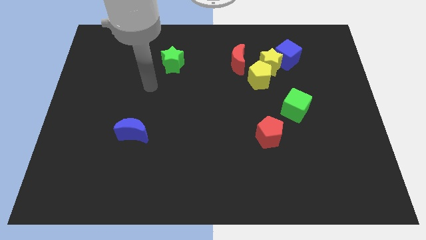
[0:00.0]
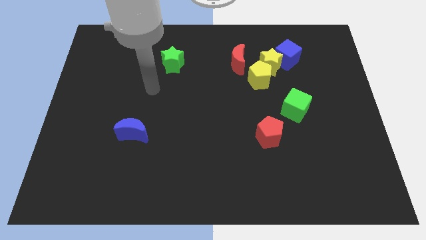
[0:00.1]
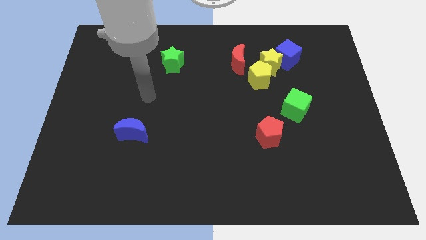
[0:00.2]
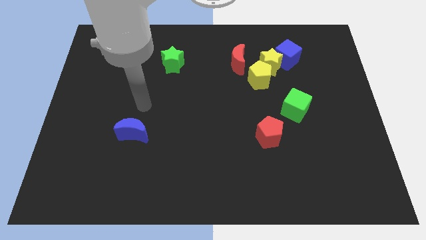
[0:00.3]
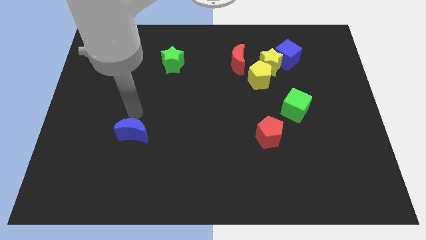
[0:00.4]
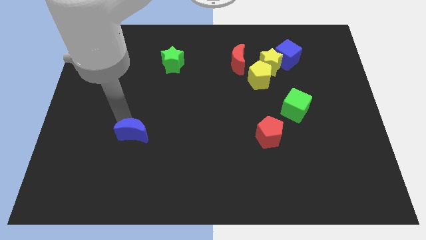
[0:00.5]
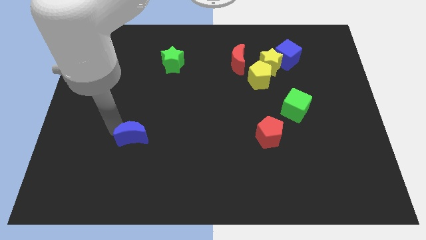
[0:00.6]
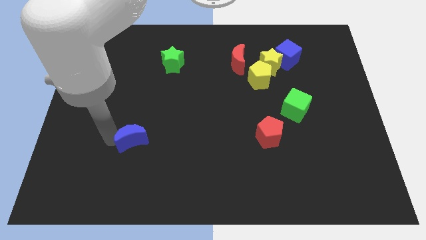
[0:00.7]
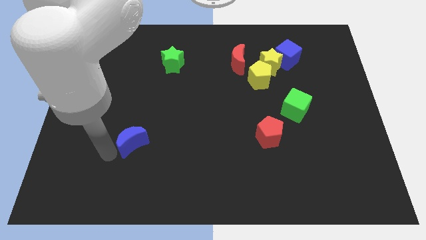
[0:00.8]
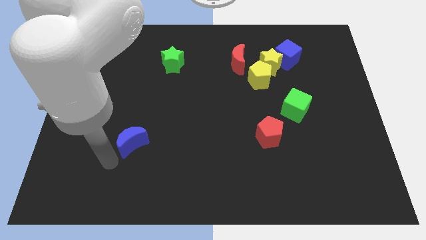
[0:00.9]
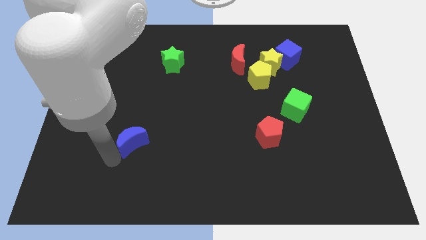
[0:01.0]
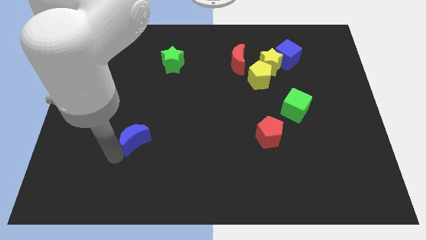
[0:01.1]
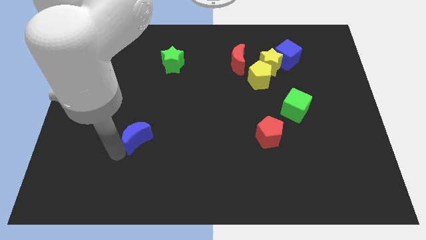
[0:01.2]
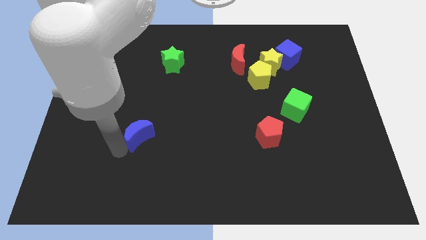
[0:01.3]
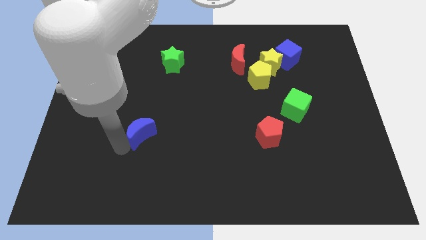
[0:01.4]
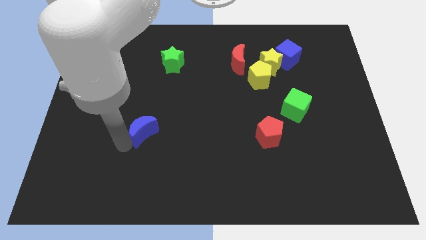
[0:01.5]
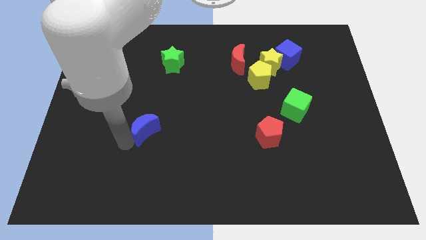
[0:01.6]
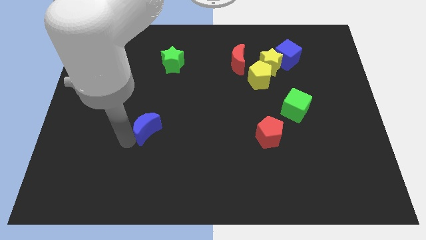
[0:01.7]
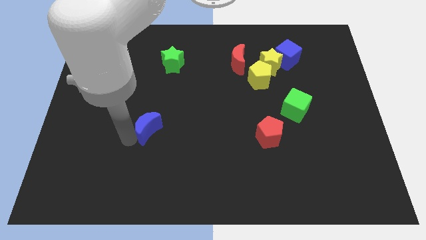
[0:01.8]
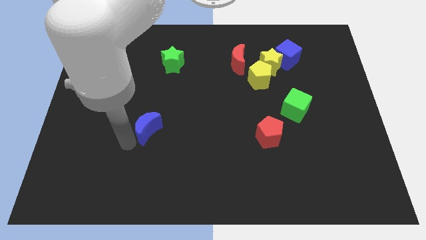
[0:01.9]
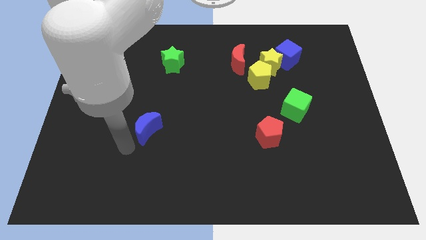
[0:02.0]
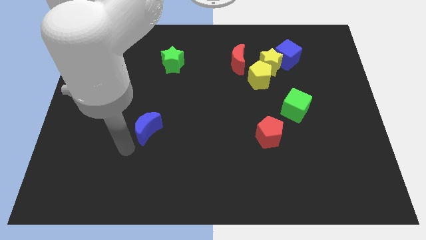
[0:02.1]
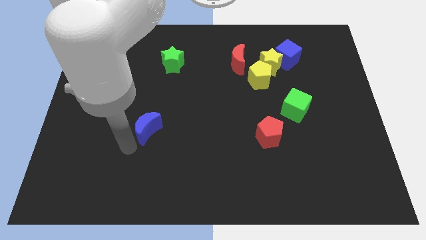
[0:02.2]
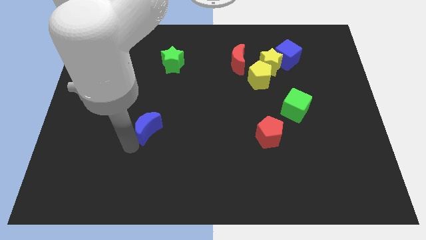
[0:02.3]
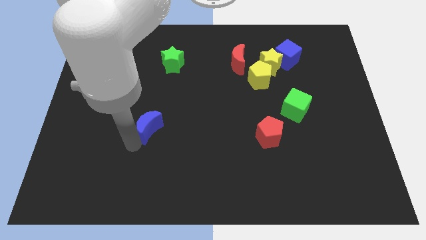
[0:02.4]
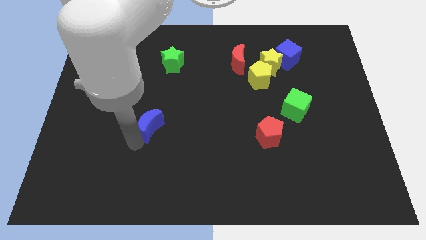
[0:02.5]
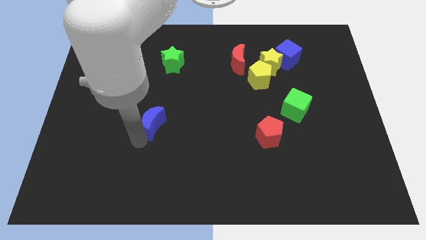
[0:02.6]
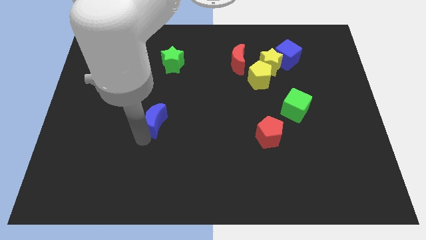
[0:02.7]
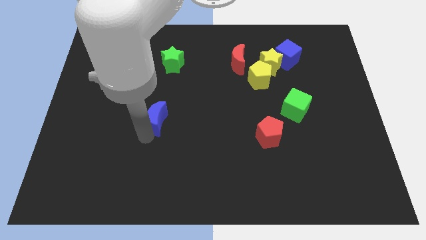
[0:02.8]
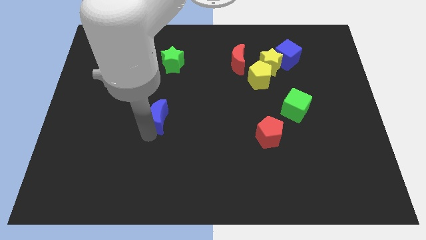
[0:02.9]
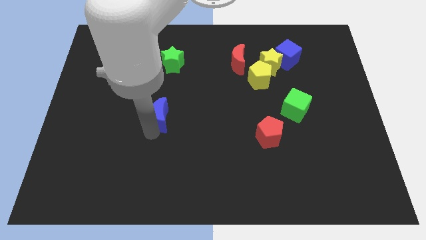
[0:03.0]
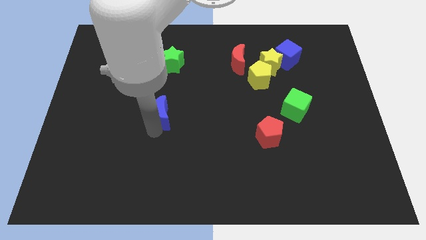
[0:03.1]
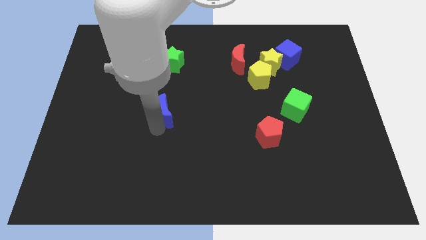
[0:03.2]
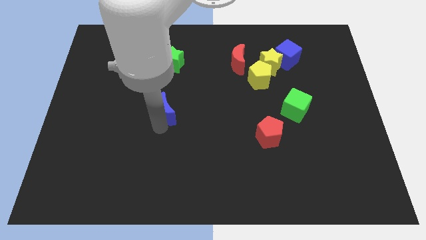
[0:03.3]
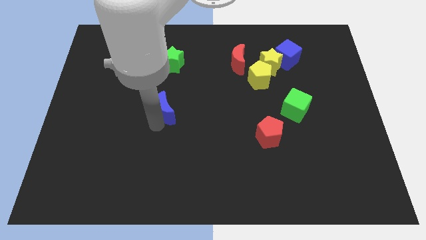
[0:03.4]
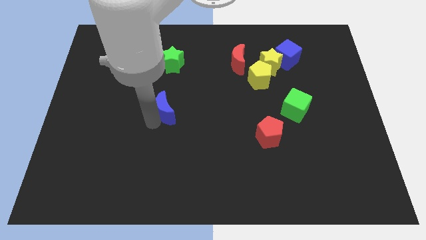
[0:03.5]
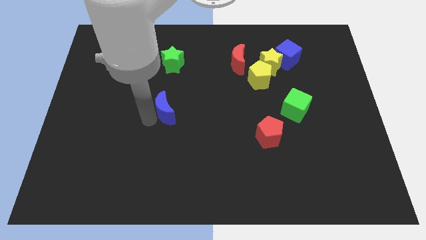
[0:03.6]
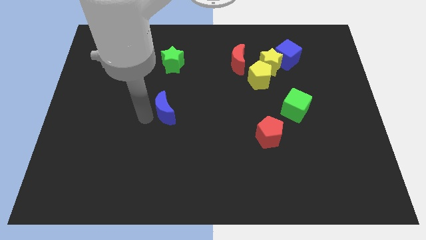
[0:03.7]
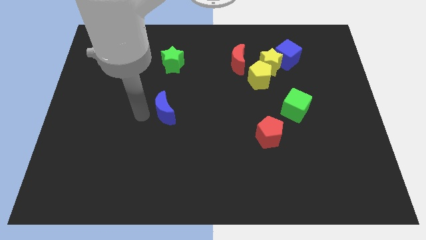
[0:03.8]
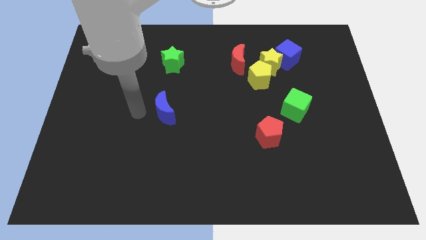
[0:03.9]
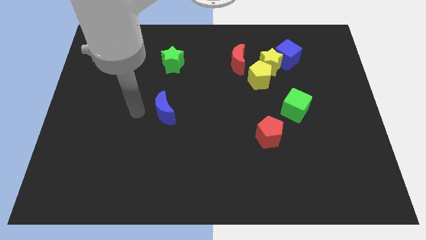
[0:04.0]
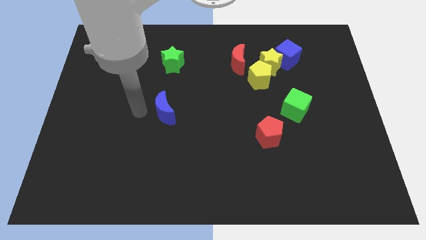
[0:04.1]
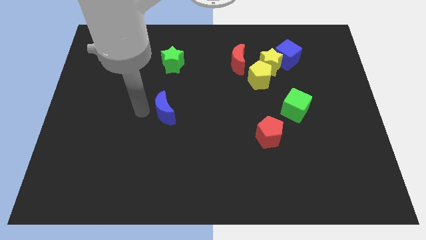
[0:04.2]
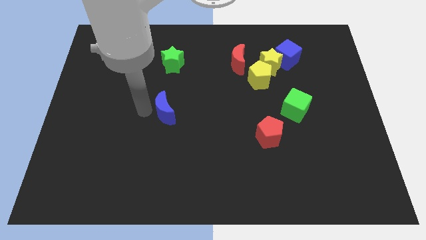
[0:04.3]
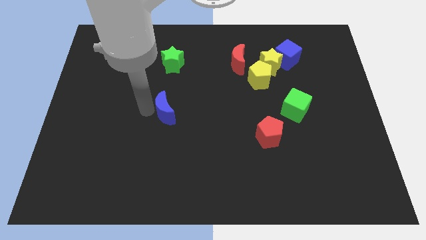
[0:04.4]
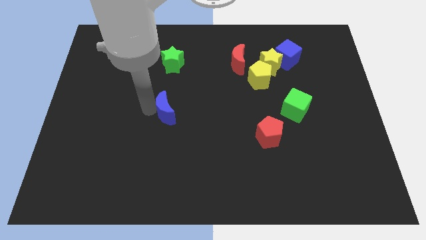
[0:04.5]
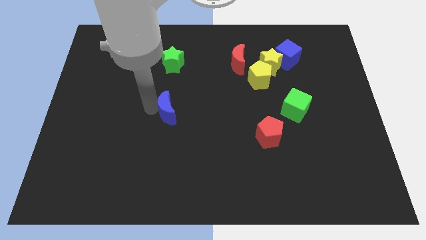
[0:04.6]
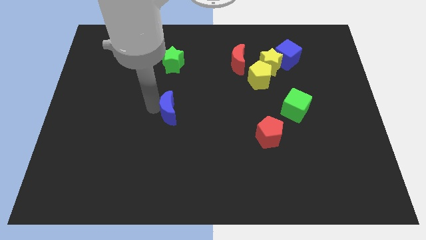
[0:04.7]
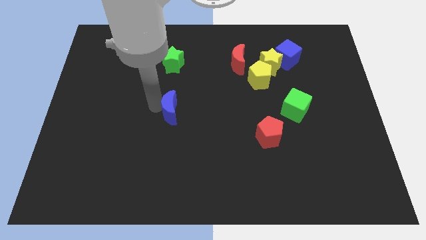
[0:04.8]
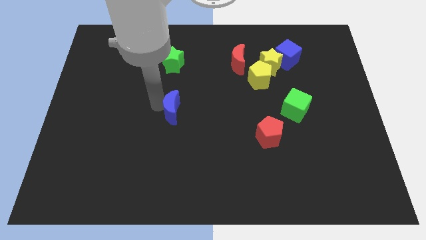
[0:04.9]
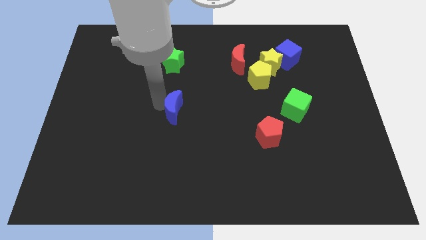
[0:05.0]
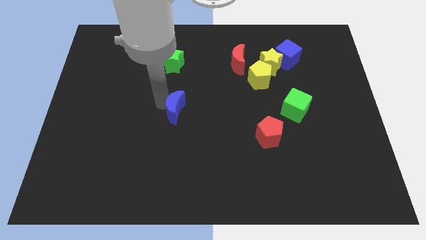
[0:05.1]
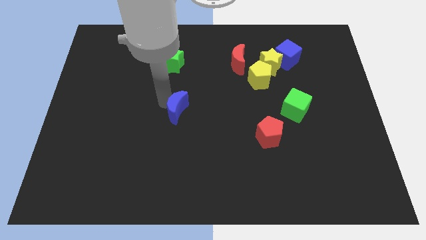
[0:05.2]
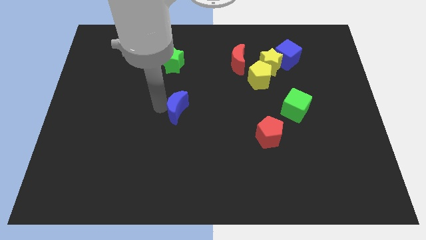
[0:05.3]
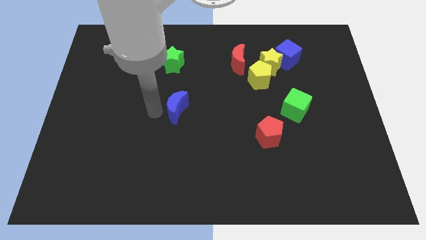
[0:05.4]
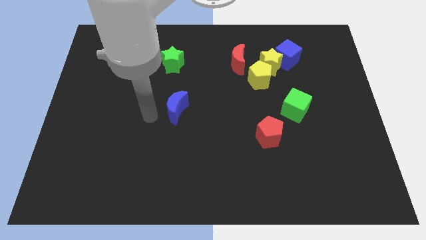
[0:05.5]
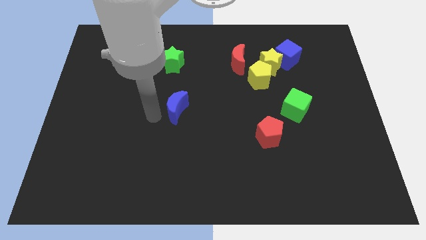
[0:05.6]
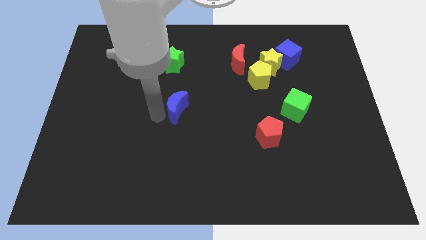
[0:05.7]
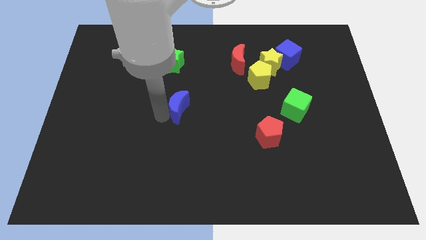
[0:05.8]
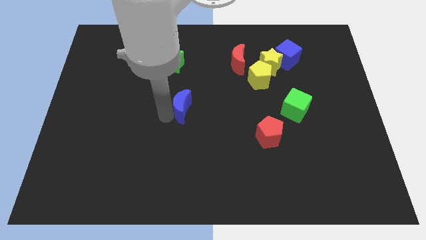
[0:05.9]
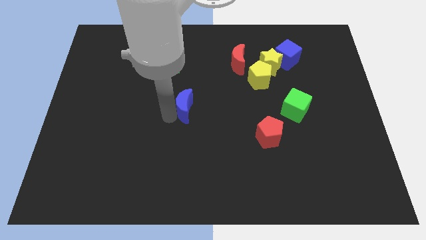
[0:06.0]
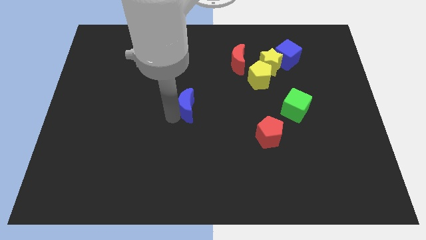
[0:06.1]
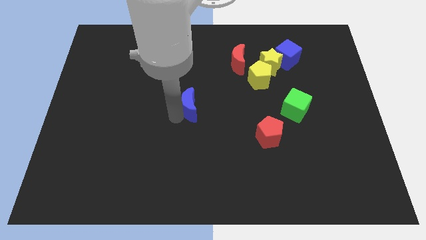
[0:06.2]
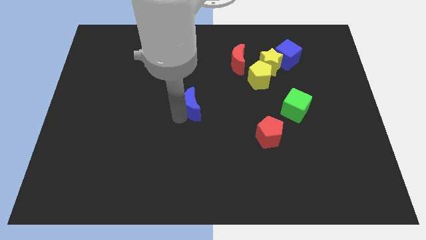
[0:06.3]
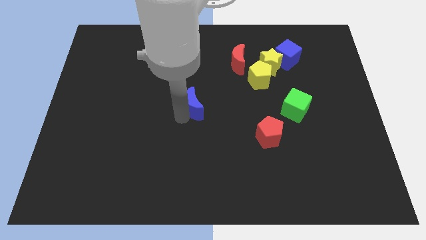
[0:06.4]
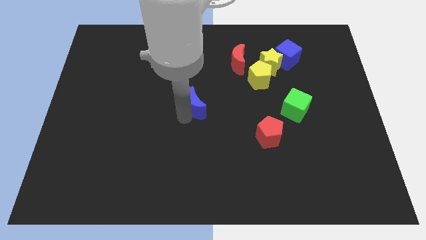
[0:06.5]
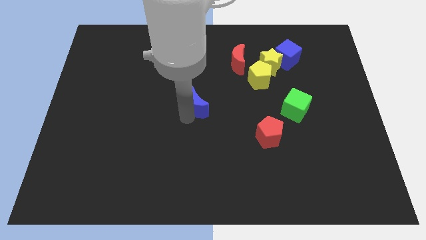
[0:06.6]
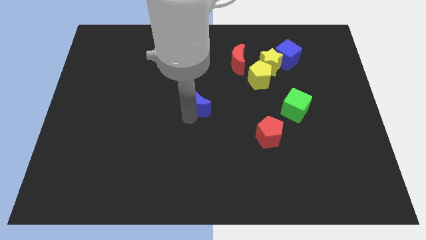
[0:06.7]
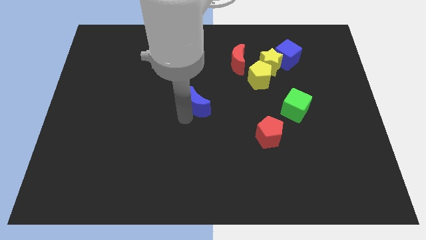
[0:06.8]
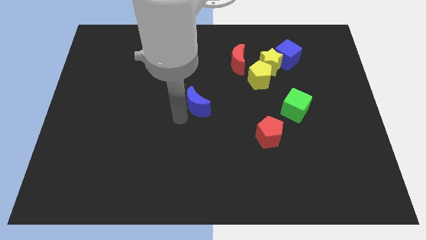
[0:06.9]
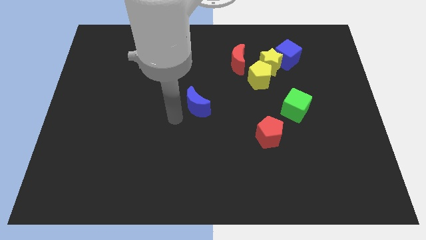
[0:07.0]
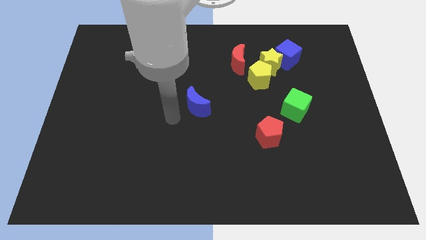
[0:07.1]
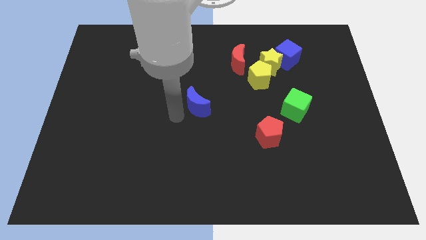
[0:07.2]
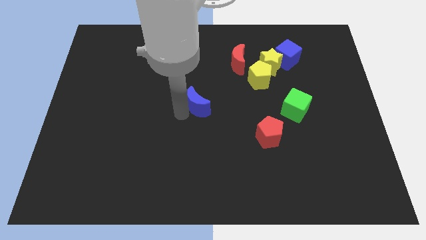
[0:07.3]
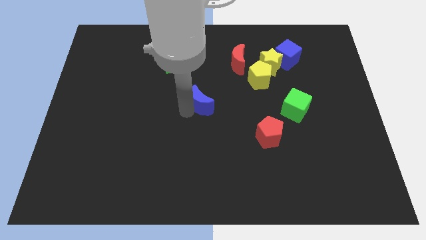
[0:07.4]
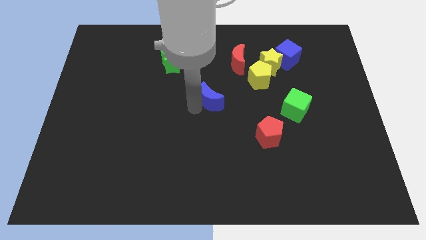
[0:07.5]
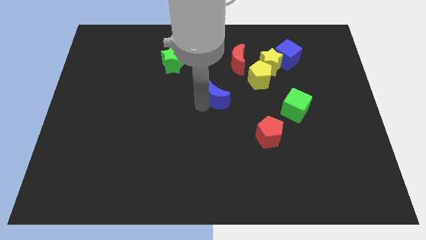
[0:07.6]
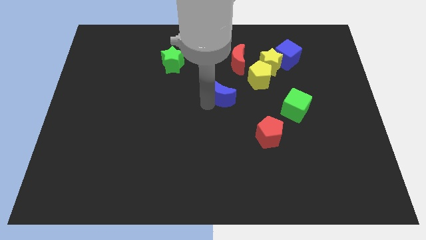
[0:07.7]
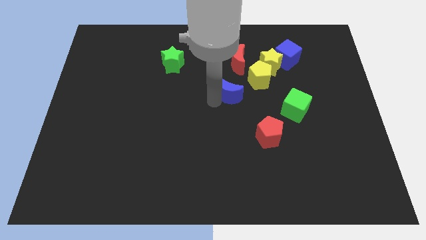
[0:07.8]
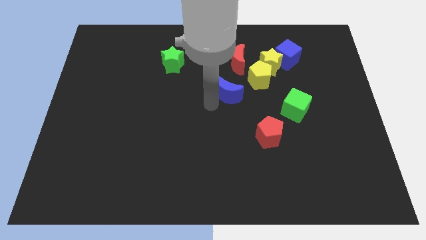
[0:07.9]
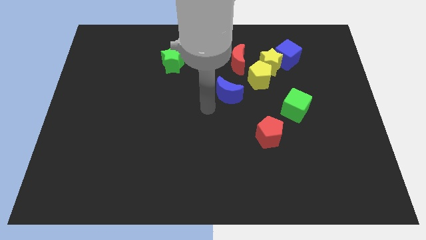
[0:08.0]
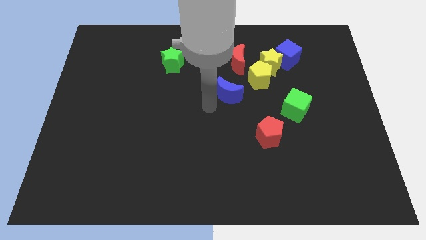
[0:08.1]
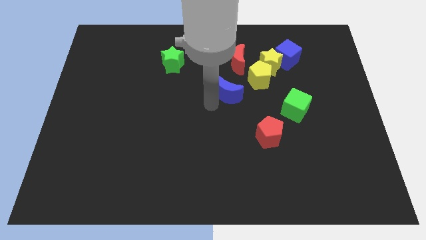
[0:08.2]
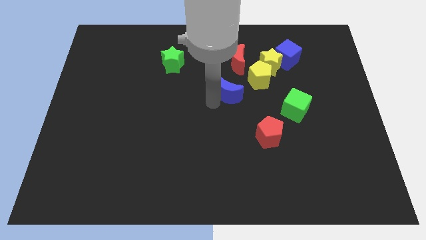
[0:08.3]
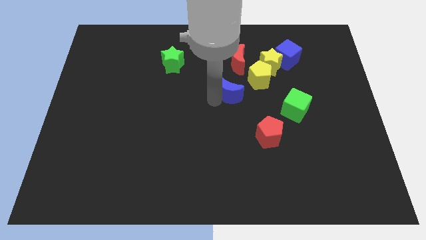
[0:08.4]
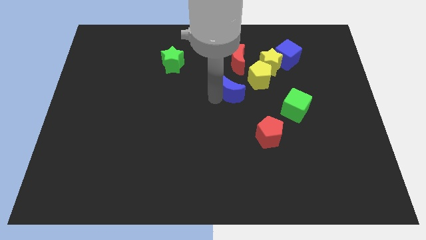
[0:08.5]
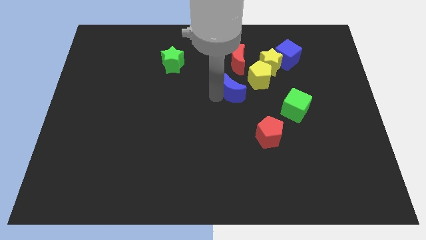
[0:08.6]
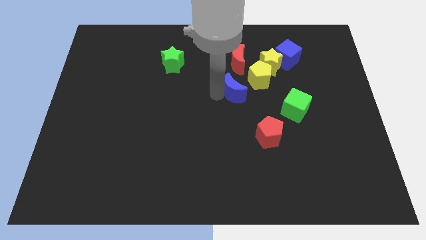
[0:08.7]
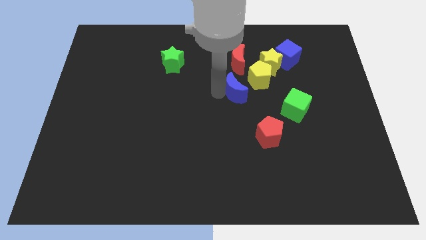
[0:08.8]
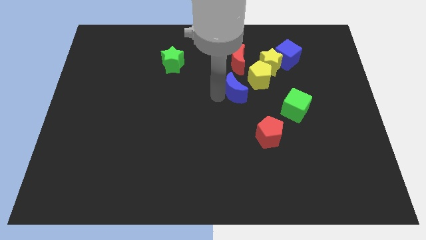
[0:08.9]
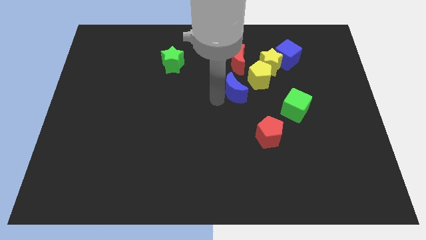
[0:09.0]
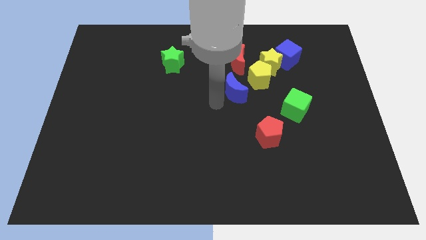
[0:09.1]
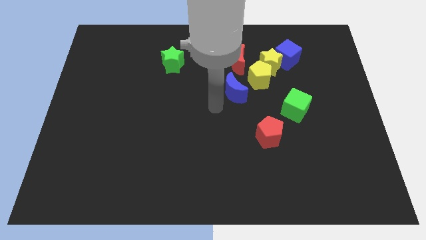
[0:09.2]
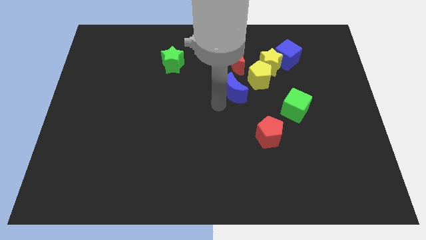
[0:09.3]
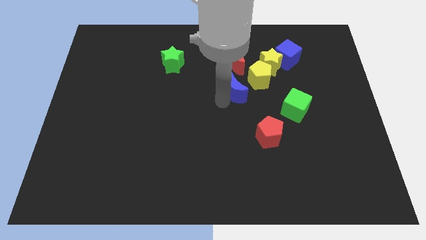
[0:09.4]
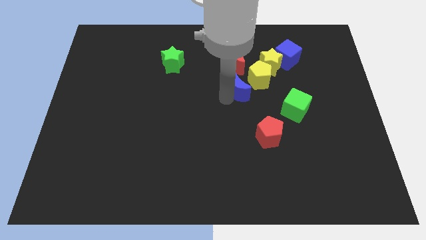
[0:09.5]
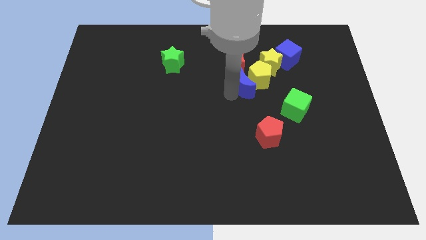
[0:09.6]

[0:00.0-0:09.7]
move the blue moon close to the yellow pentagon
